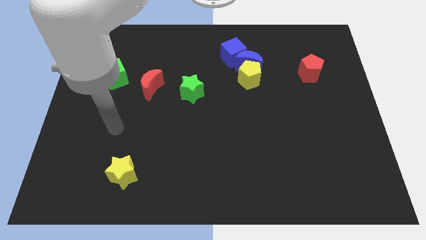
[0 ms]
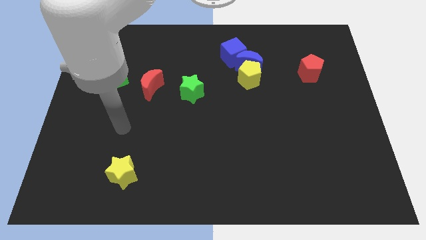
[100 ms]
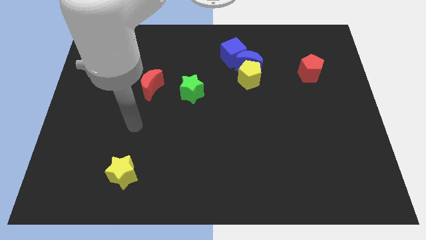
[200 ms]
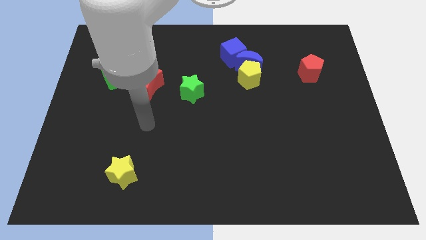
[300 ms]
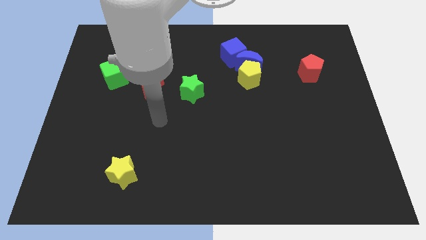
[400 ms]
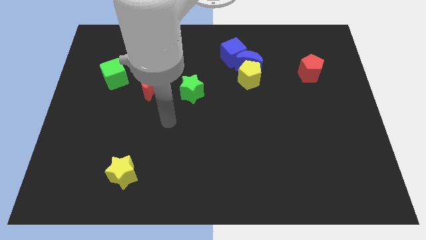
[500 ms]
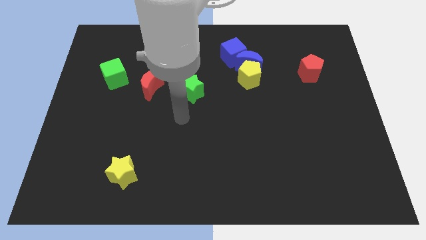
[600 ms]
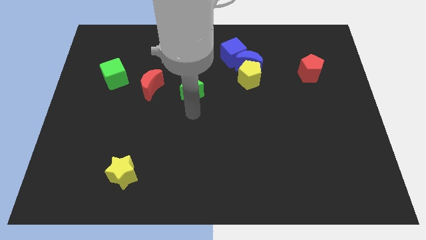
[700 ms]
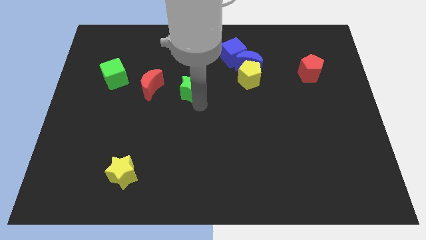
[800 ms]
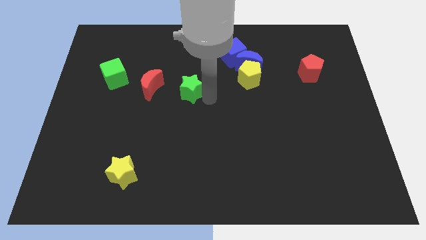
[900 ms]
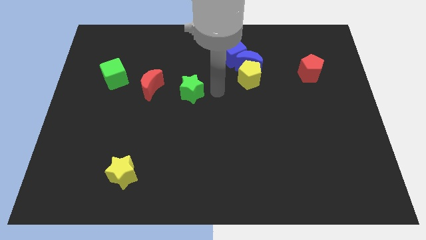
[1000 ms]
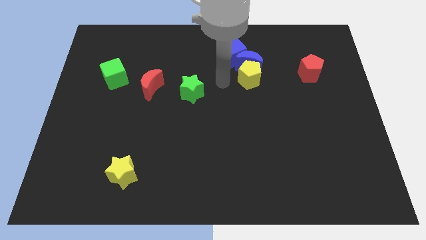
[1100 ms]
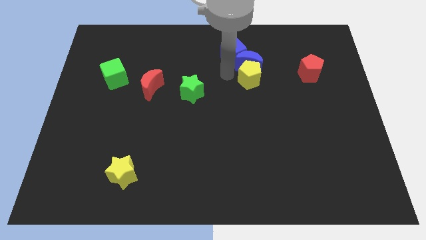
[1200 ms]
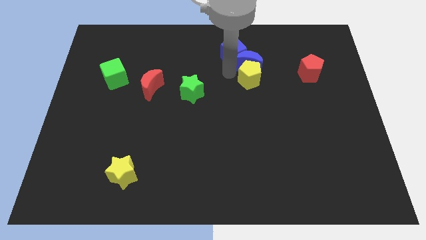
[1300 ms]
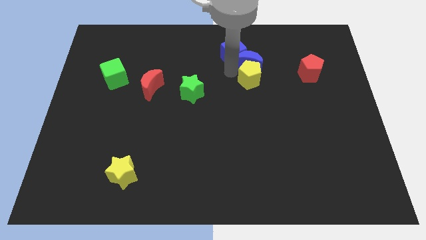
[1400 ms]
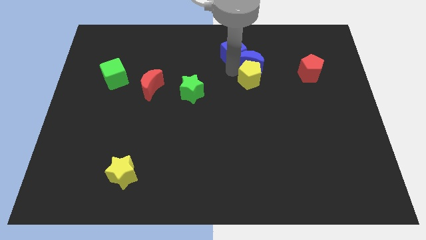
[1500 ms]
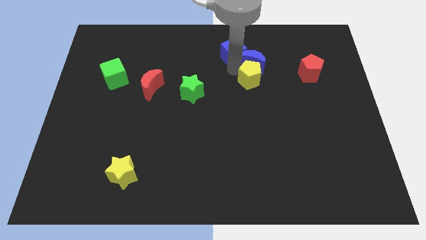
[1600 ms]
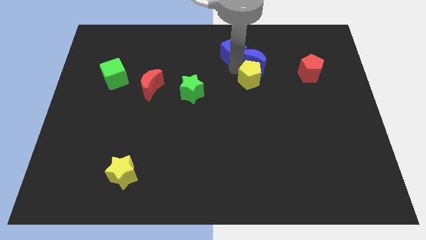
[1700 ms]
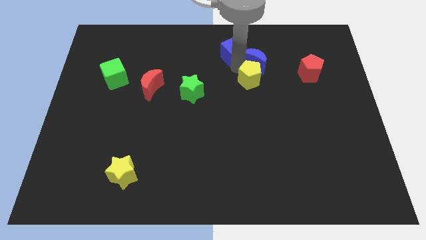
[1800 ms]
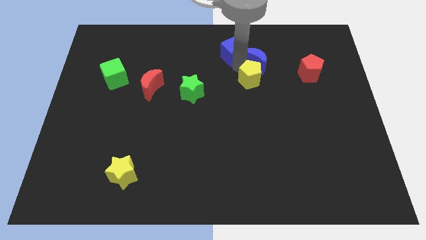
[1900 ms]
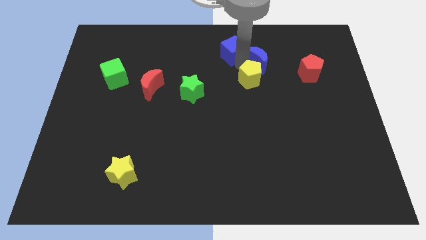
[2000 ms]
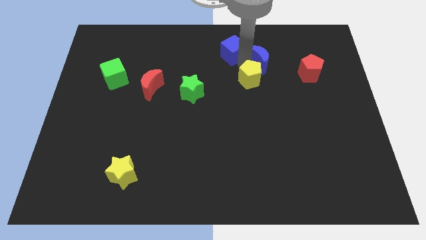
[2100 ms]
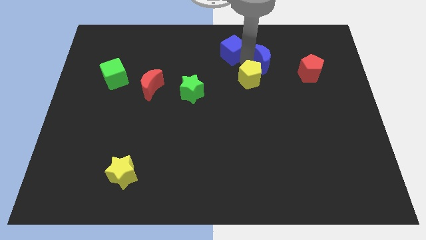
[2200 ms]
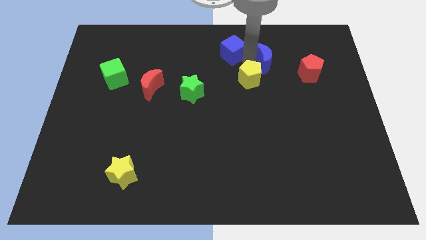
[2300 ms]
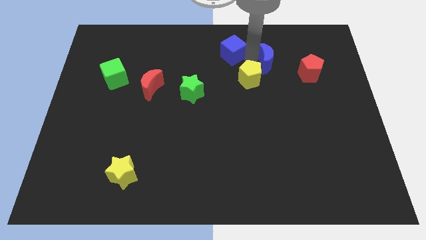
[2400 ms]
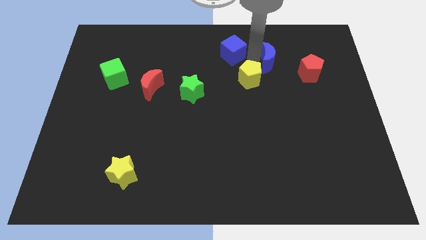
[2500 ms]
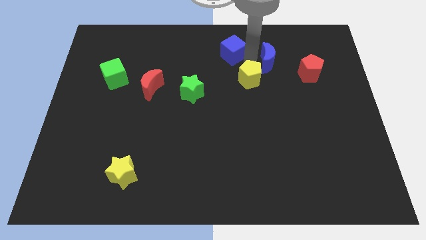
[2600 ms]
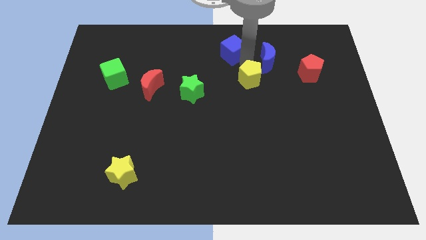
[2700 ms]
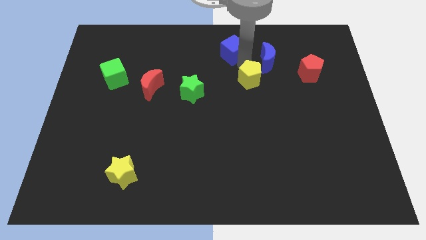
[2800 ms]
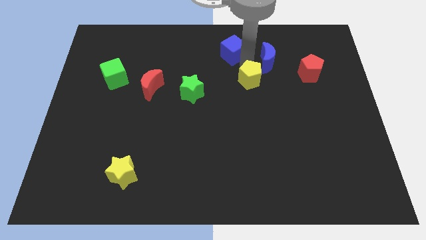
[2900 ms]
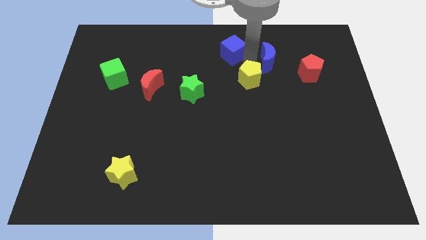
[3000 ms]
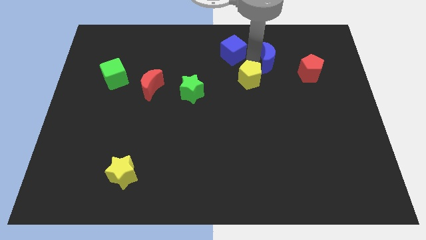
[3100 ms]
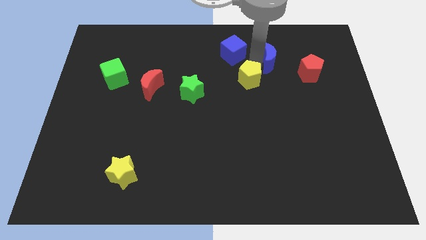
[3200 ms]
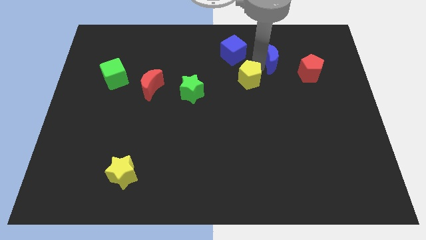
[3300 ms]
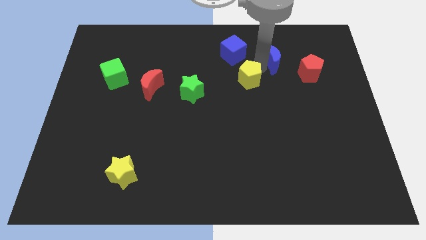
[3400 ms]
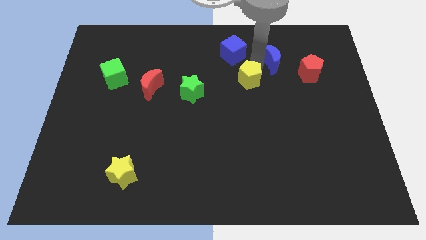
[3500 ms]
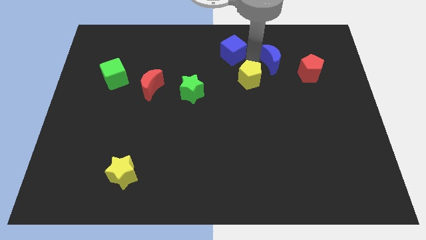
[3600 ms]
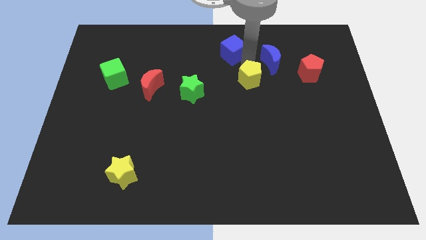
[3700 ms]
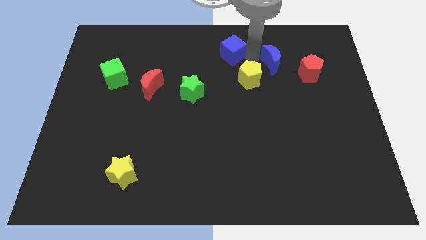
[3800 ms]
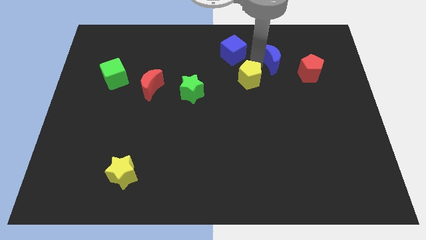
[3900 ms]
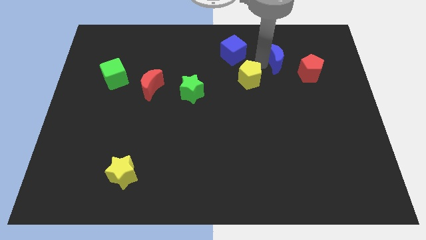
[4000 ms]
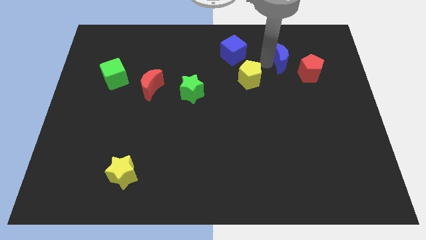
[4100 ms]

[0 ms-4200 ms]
pull the blue moon apart from the yellow pentagon and blue cube

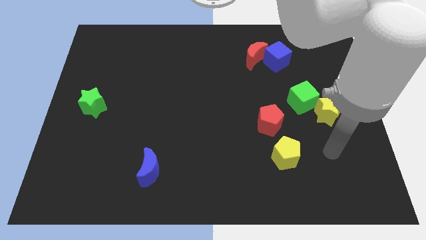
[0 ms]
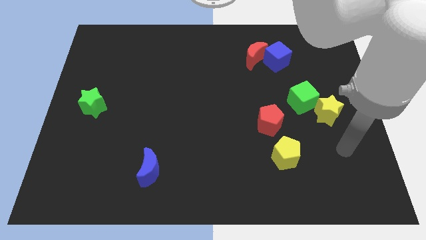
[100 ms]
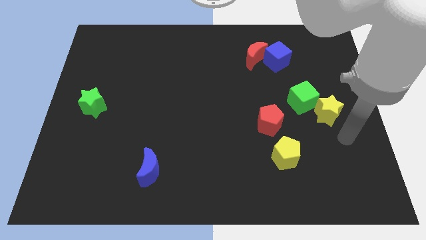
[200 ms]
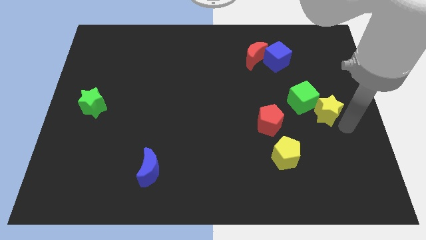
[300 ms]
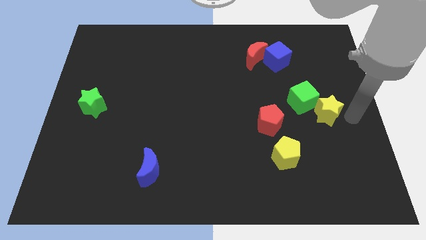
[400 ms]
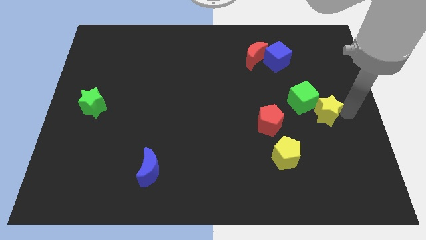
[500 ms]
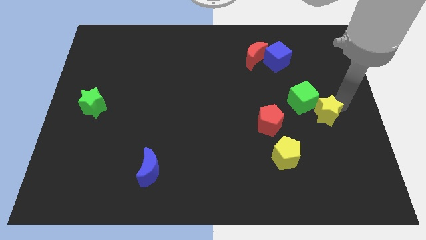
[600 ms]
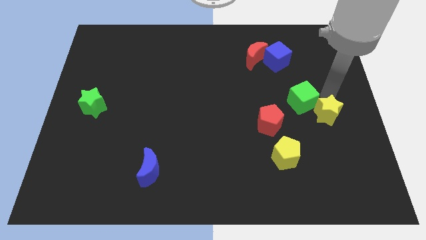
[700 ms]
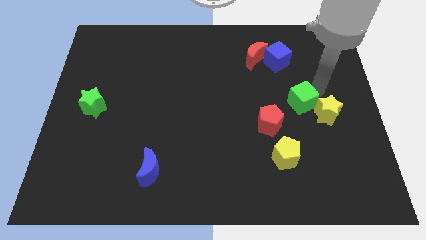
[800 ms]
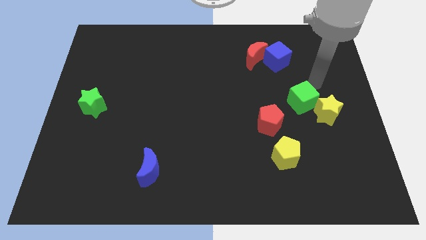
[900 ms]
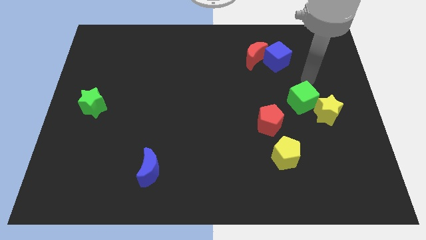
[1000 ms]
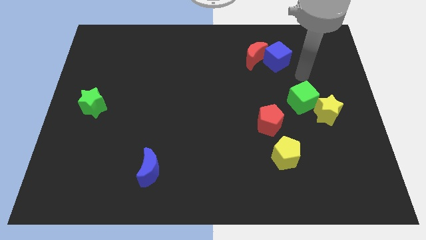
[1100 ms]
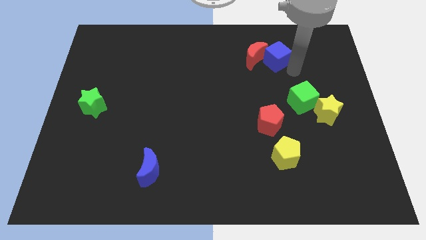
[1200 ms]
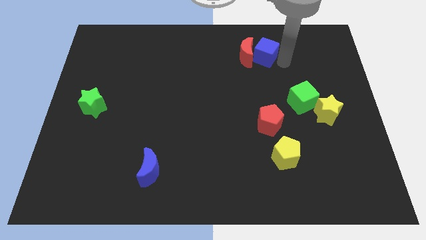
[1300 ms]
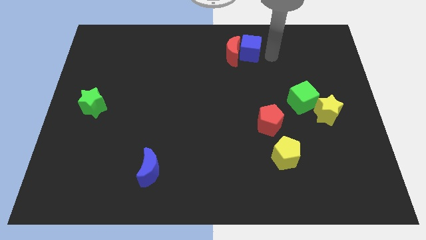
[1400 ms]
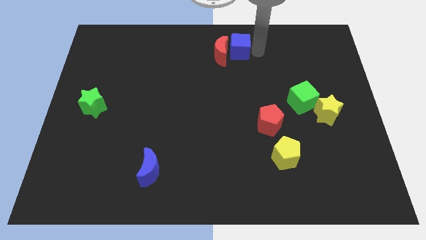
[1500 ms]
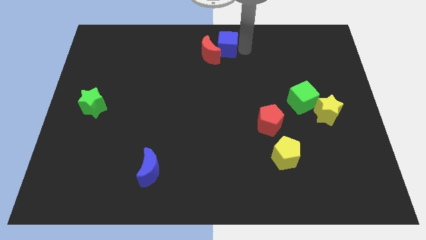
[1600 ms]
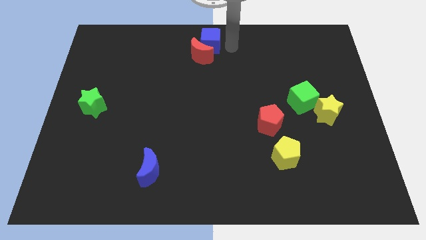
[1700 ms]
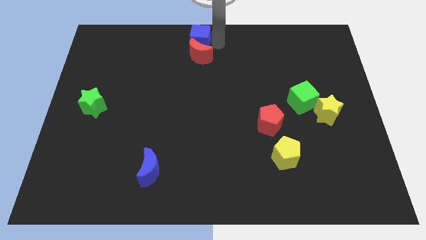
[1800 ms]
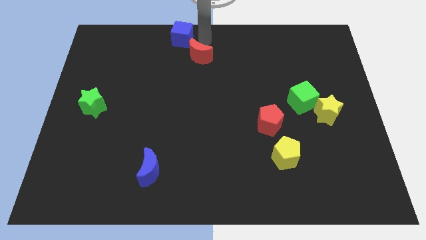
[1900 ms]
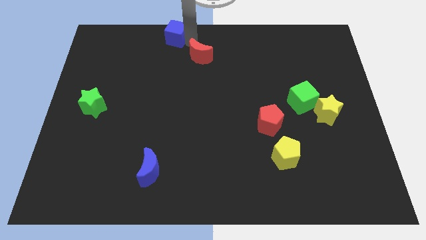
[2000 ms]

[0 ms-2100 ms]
move the red moon away from the blue cube

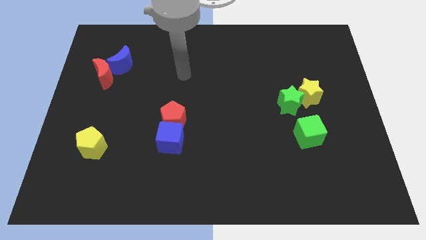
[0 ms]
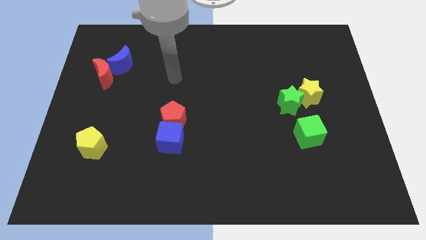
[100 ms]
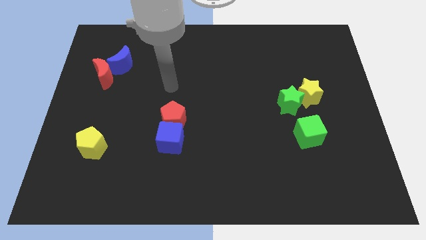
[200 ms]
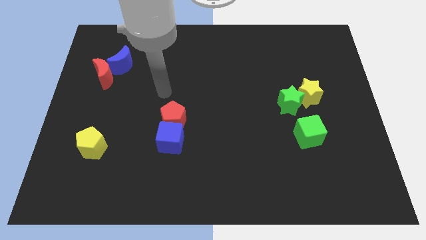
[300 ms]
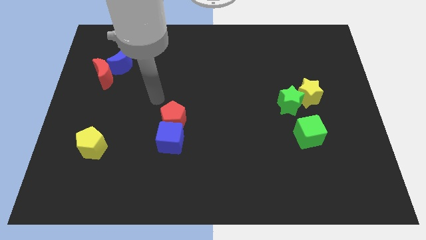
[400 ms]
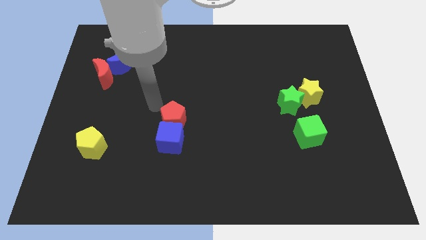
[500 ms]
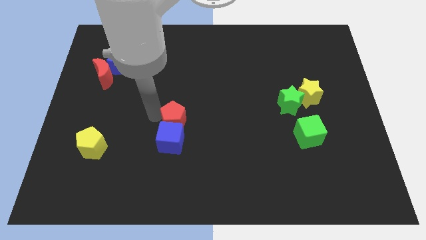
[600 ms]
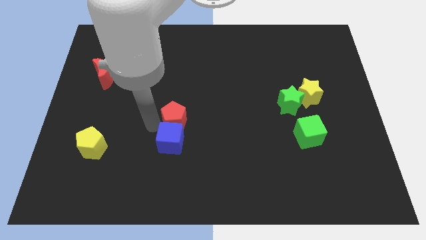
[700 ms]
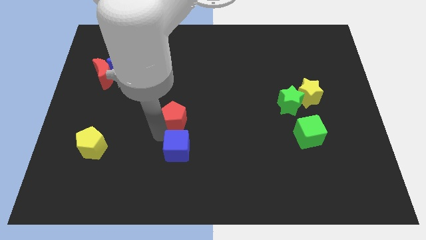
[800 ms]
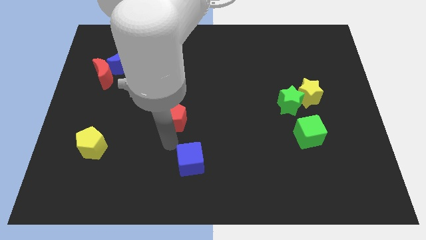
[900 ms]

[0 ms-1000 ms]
move the red pentagon away from the blue cube

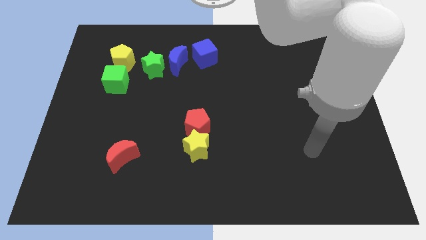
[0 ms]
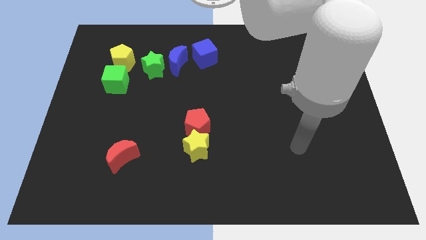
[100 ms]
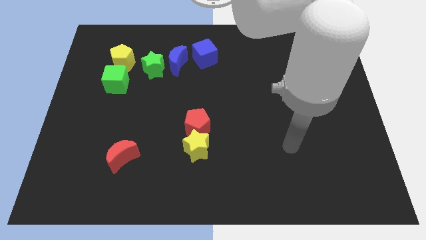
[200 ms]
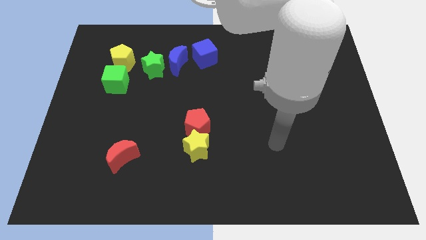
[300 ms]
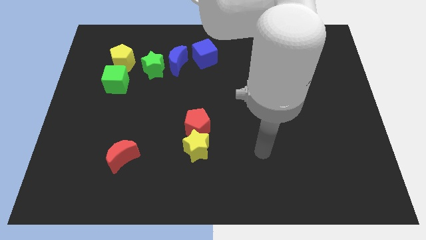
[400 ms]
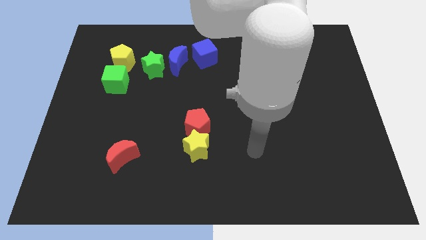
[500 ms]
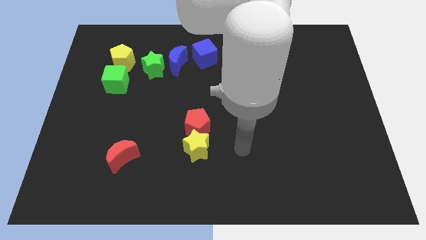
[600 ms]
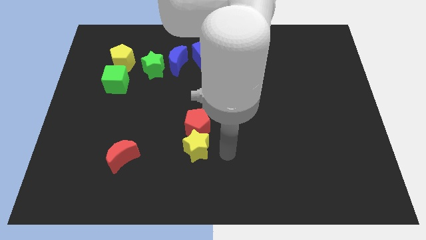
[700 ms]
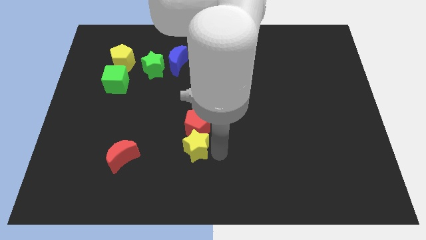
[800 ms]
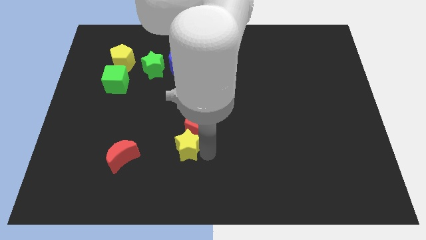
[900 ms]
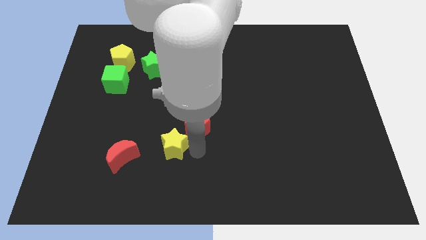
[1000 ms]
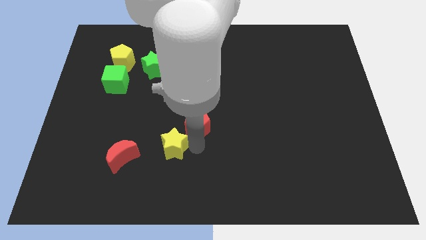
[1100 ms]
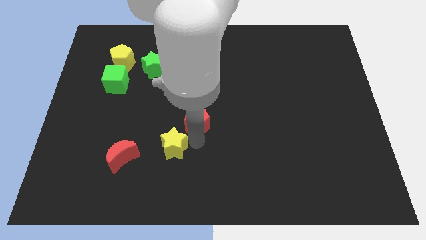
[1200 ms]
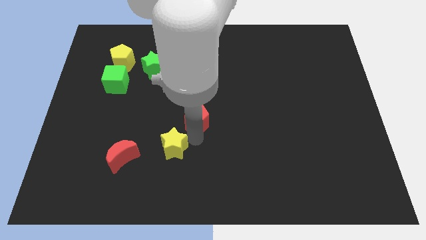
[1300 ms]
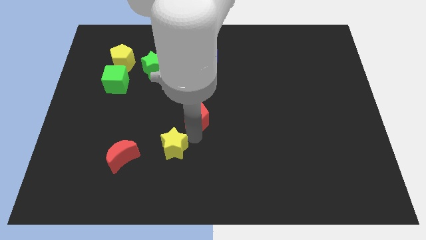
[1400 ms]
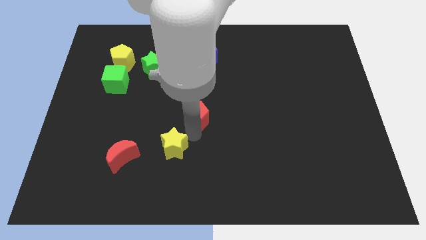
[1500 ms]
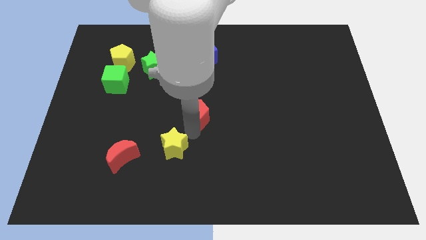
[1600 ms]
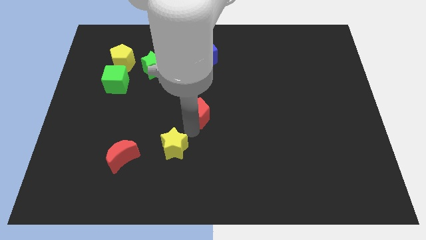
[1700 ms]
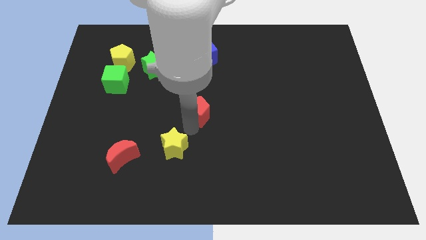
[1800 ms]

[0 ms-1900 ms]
pull the red pentagon apart from the yellow star
